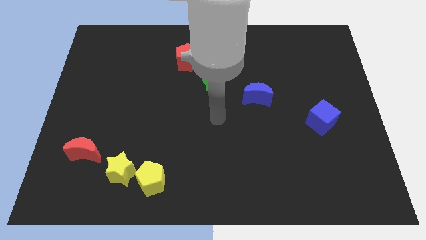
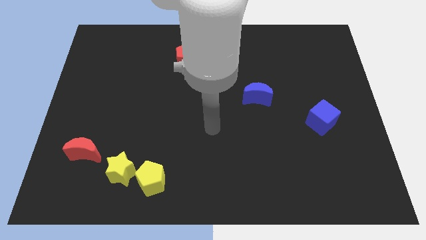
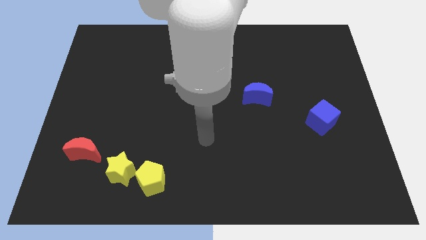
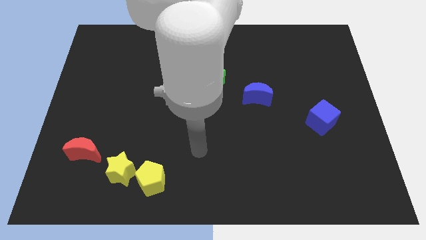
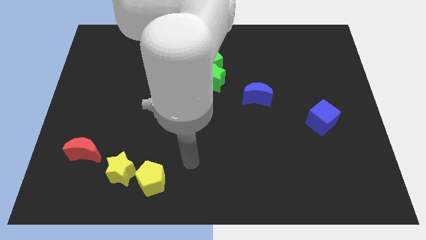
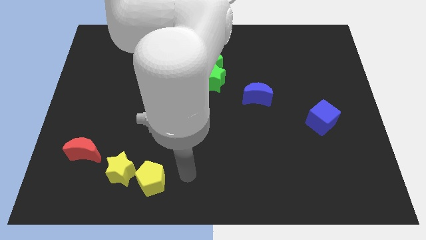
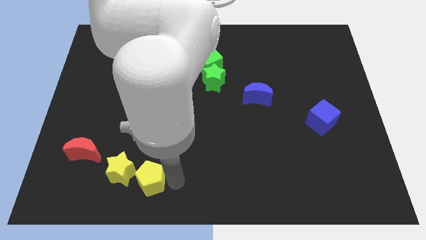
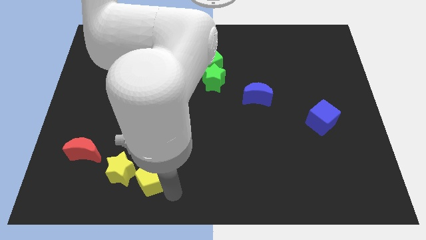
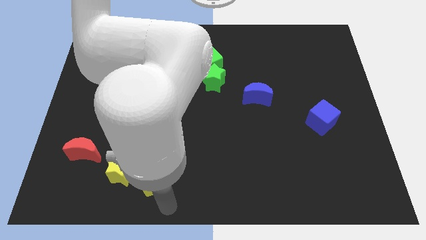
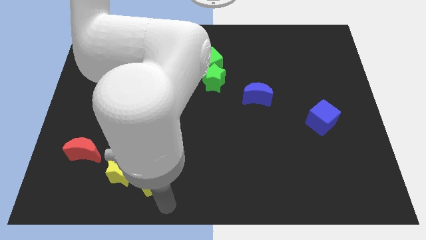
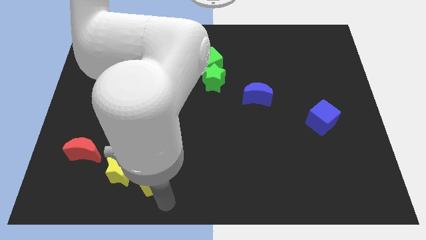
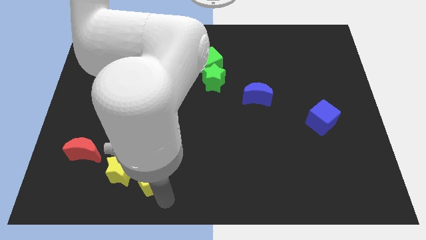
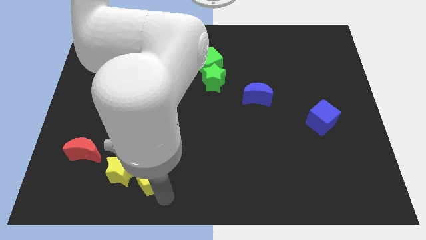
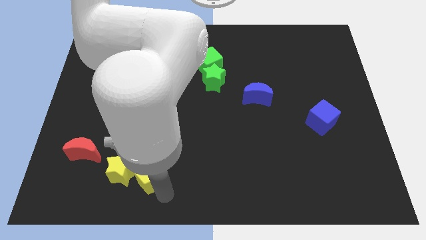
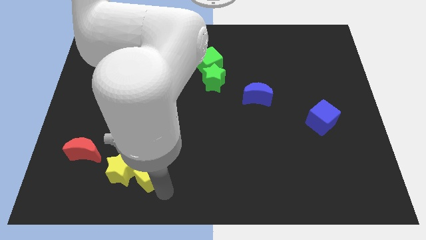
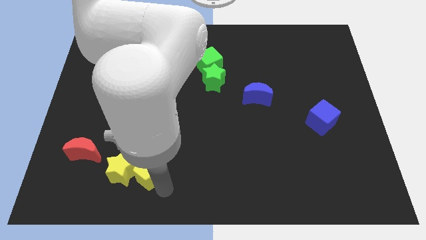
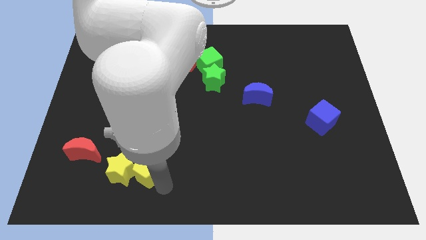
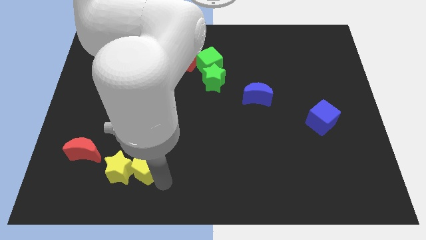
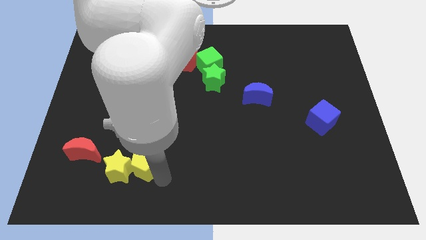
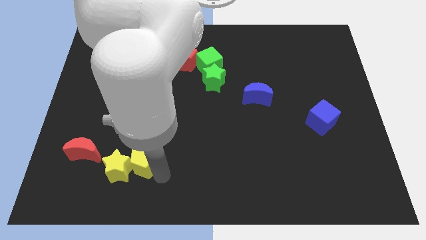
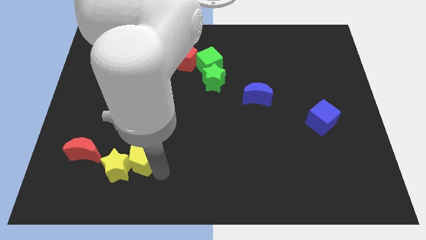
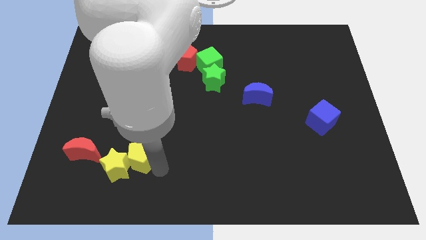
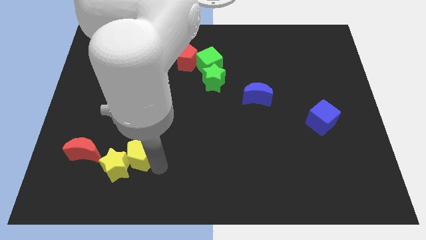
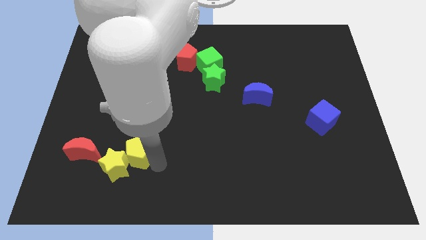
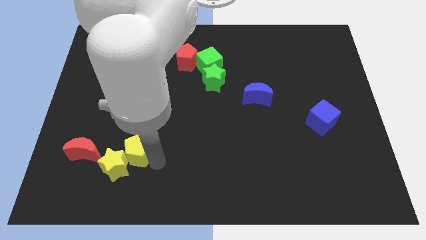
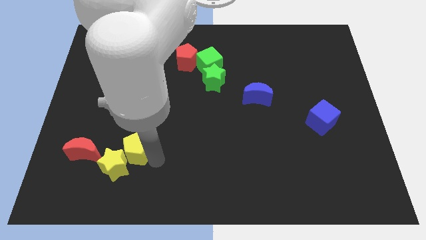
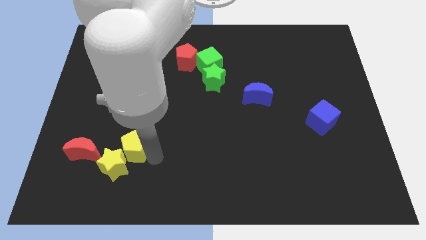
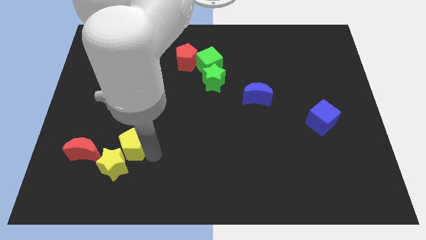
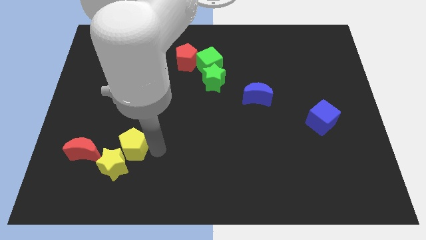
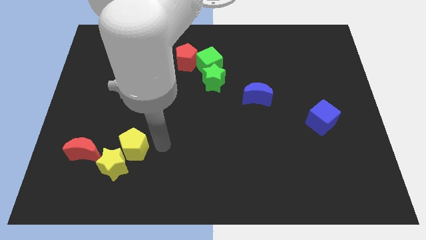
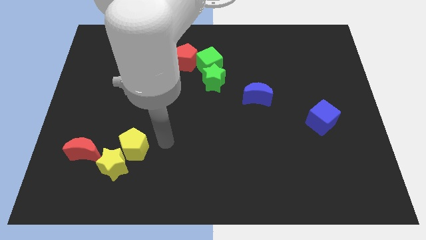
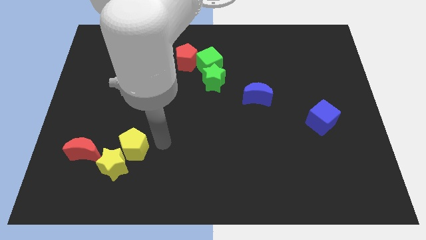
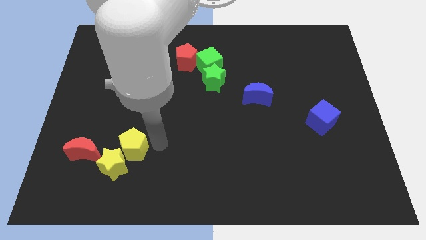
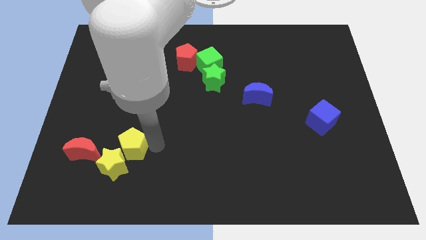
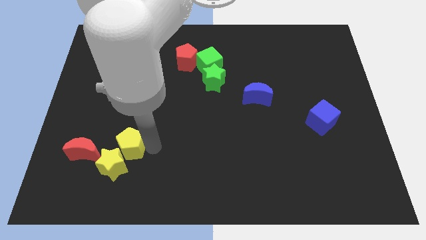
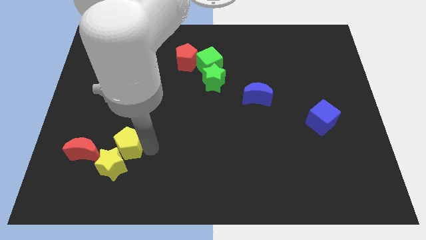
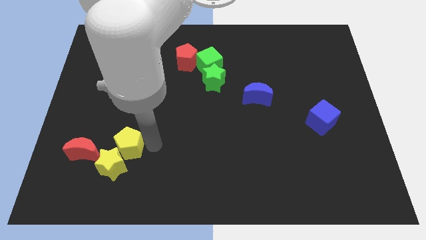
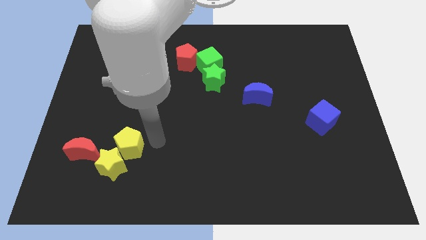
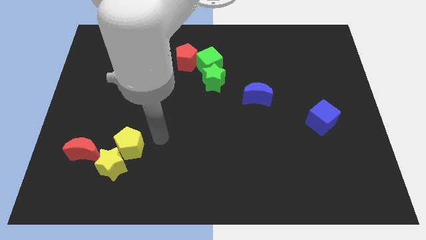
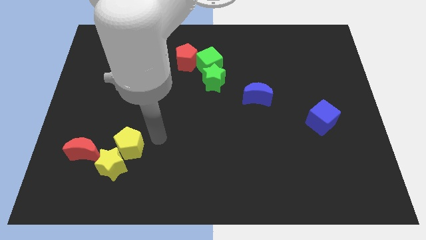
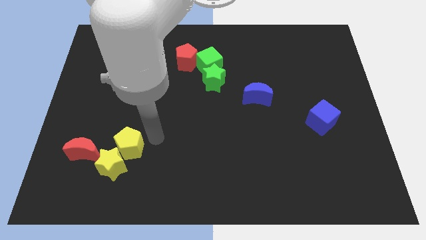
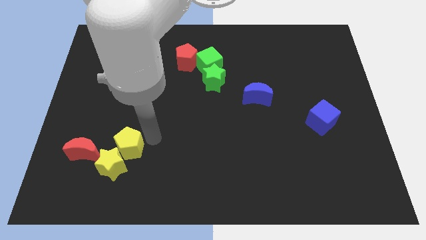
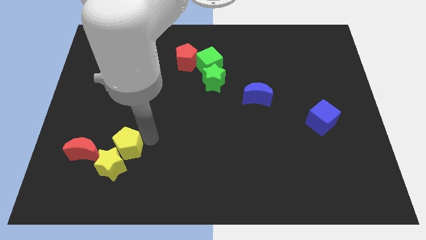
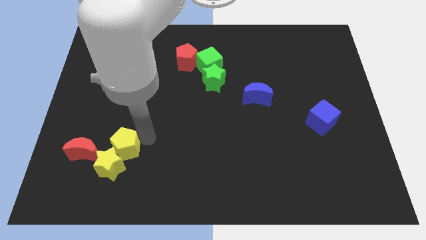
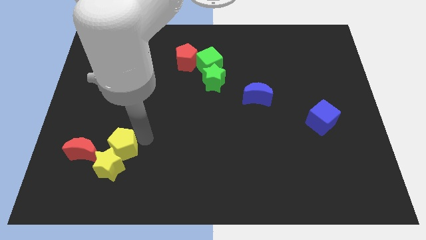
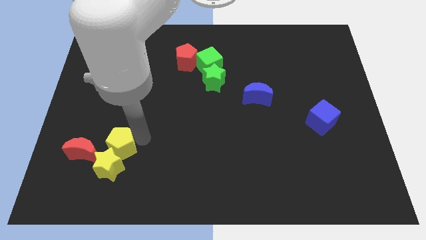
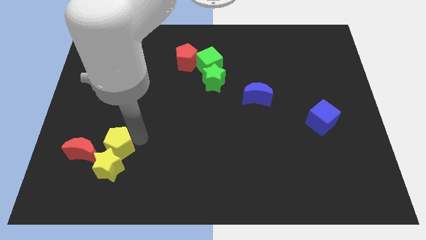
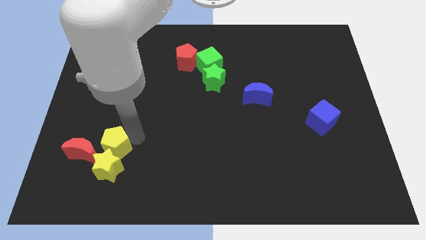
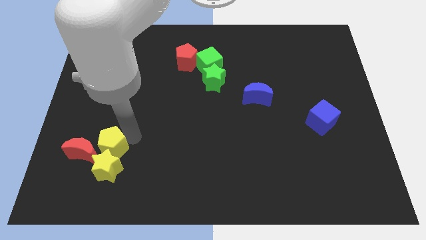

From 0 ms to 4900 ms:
put the yellow pentagon to the red moon

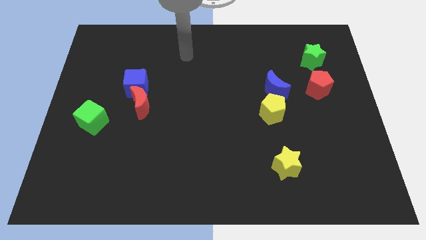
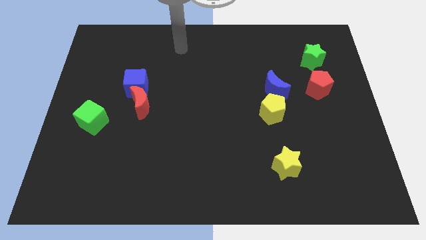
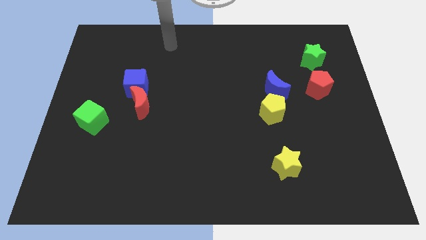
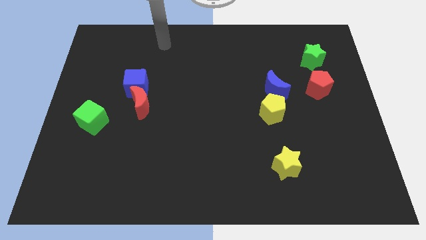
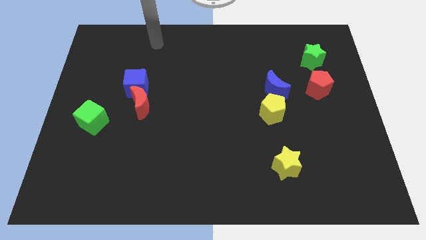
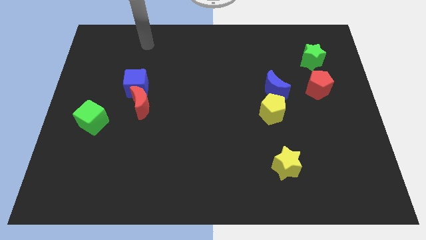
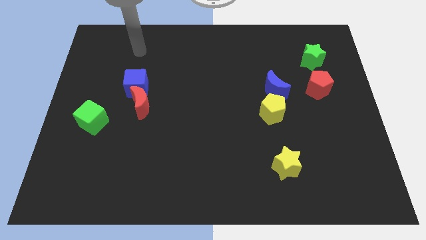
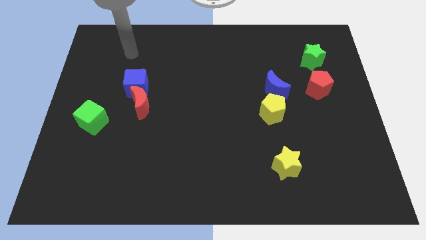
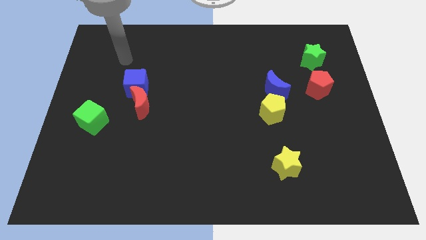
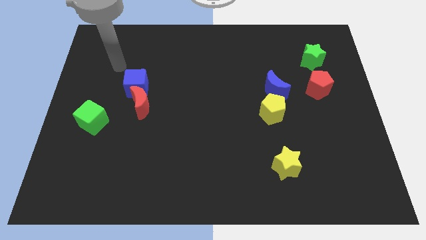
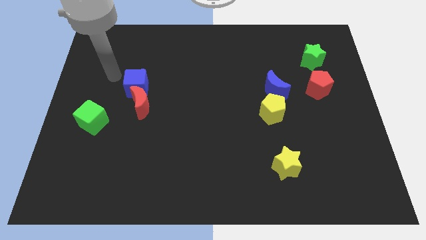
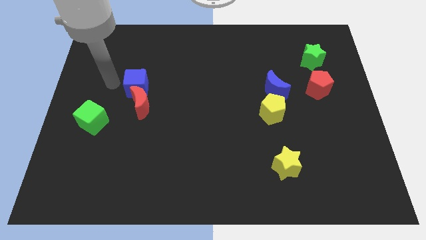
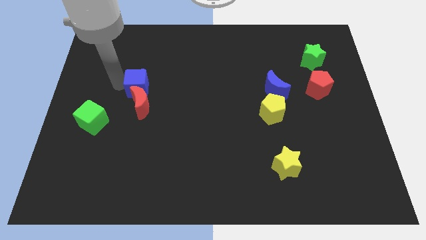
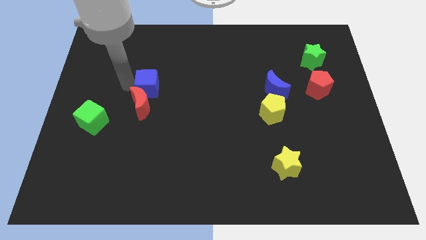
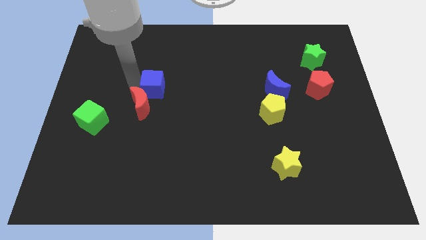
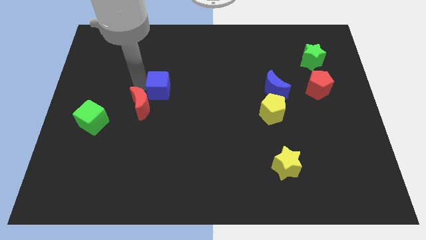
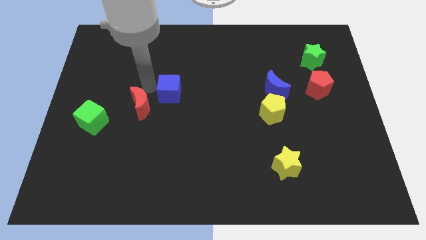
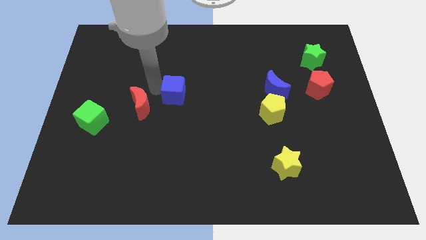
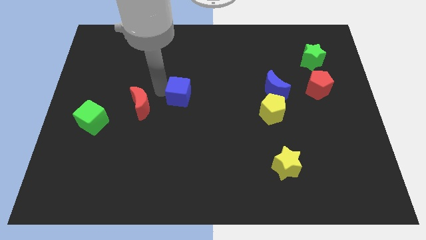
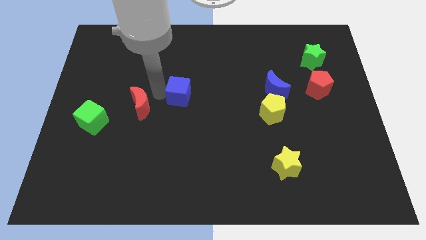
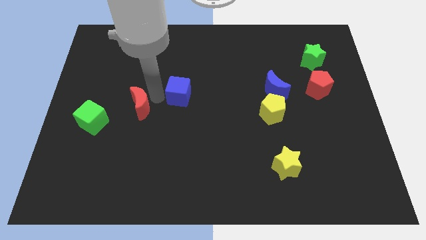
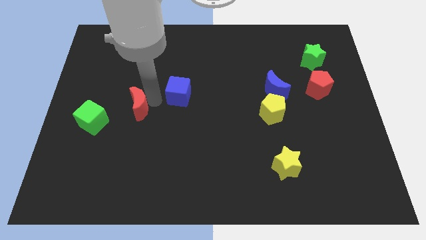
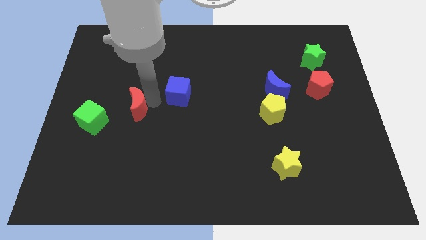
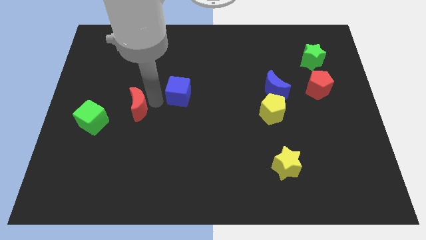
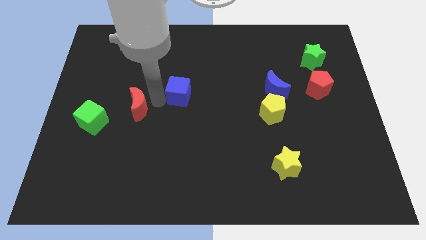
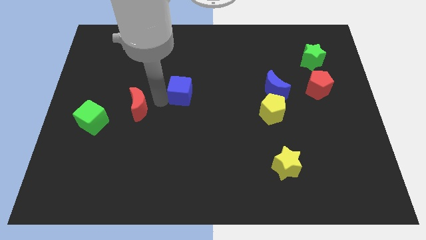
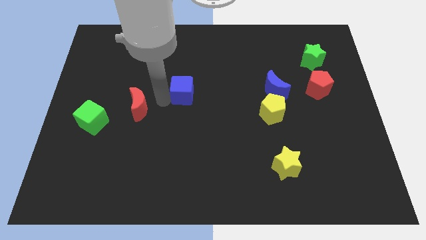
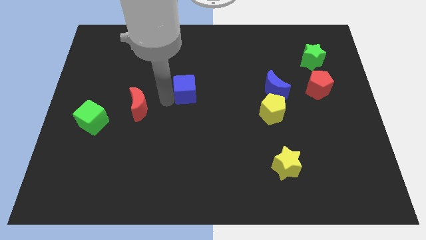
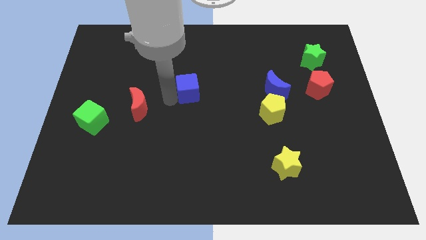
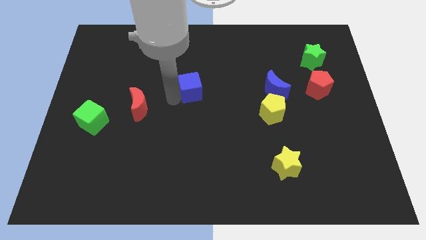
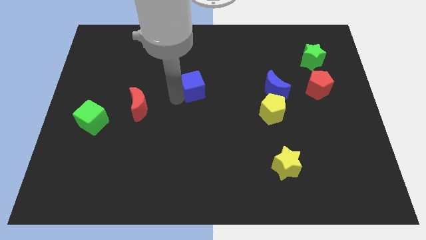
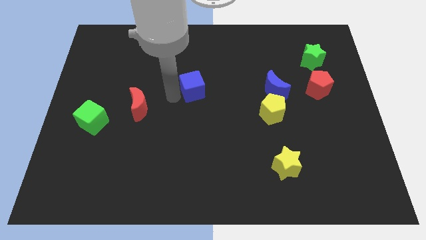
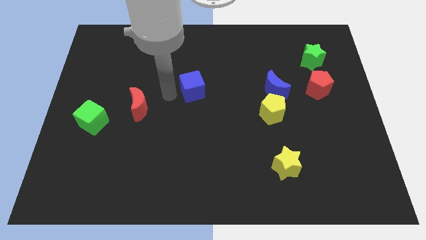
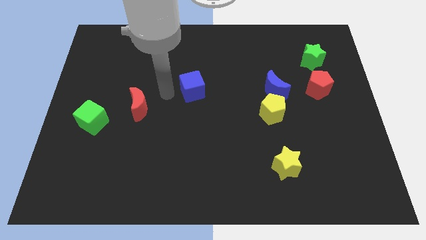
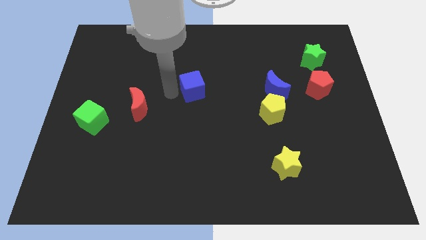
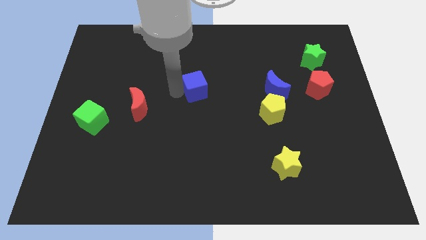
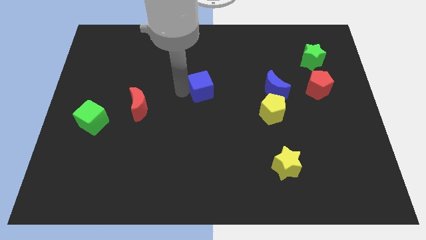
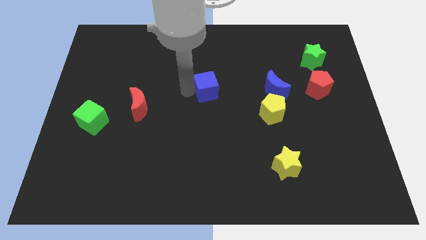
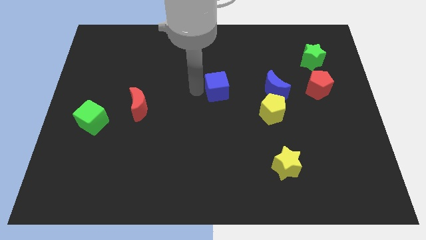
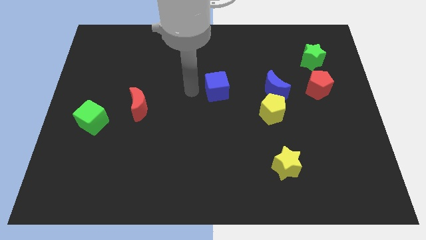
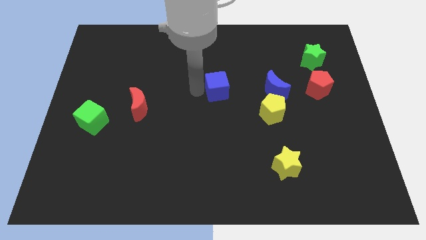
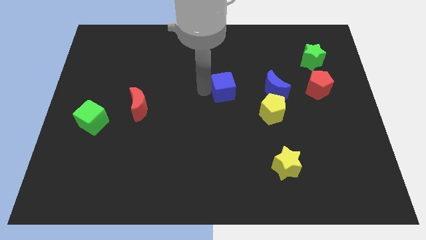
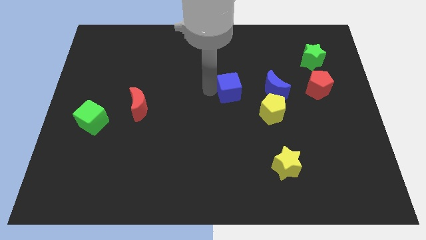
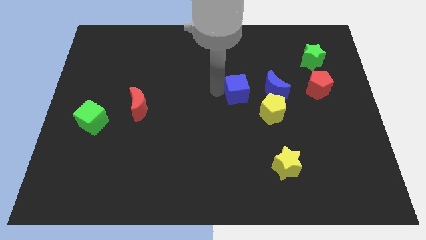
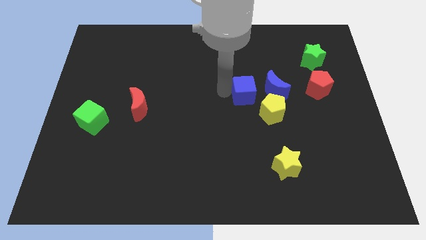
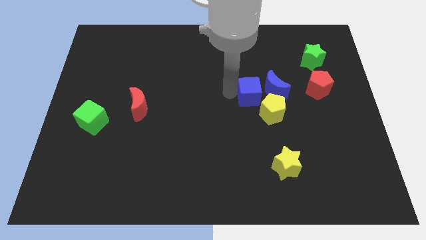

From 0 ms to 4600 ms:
push the blue cube next to the blue moon
